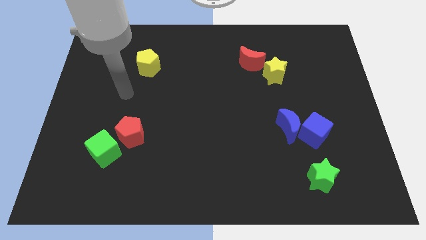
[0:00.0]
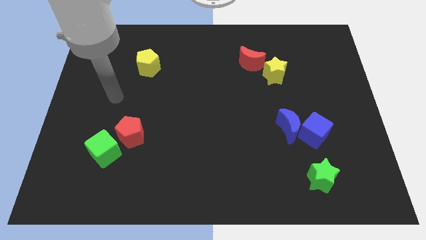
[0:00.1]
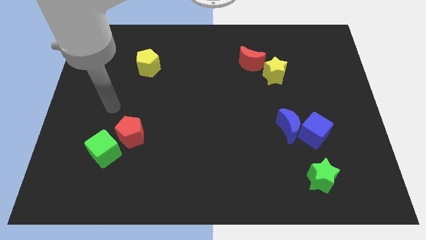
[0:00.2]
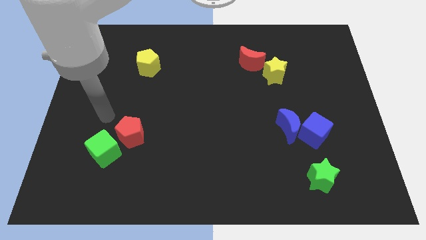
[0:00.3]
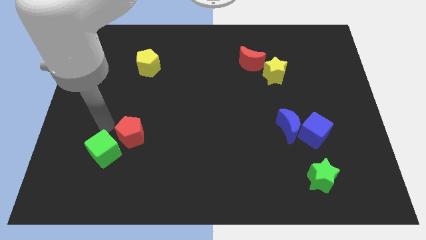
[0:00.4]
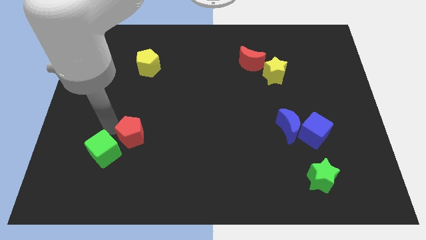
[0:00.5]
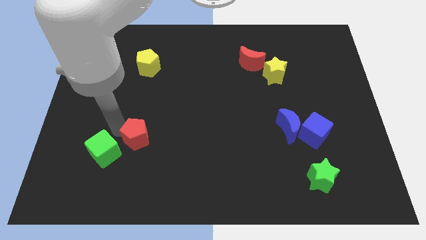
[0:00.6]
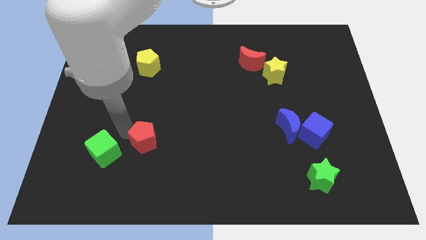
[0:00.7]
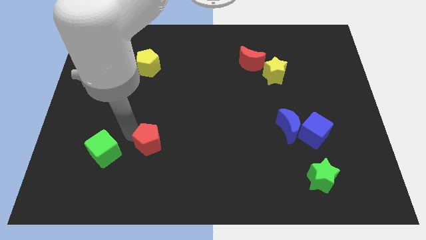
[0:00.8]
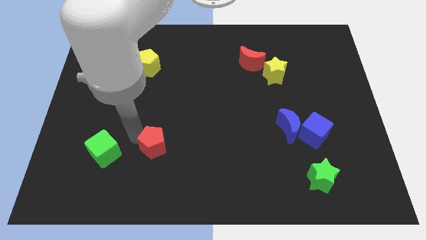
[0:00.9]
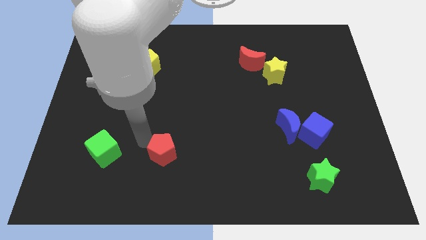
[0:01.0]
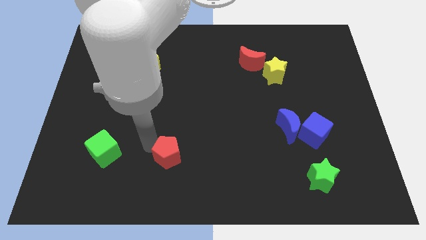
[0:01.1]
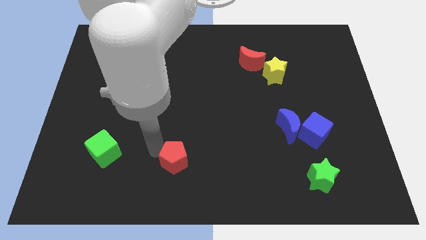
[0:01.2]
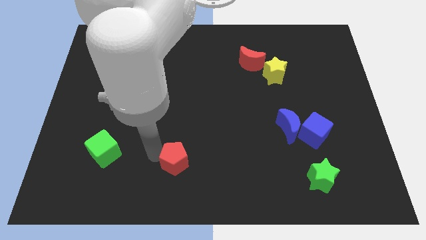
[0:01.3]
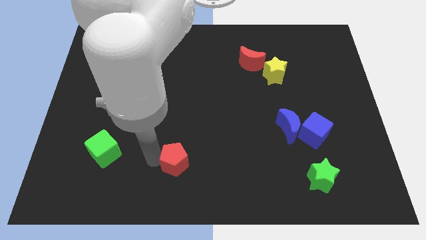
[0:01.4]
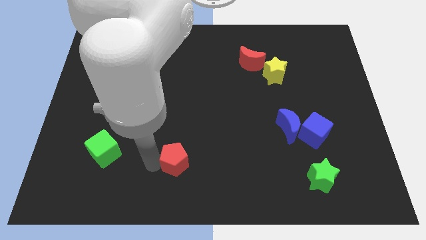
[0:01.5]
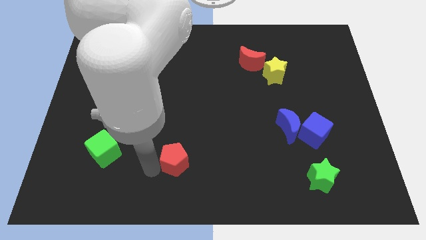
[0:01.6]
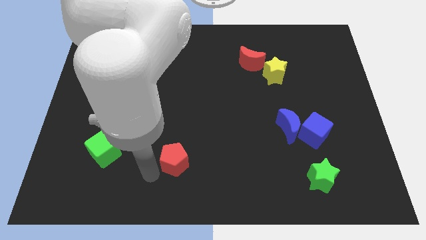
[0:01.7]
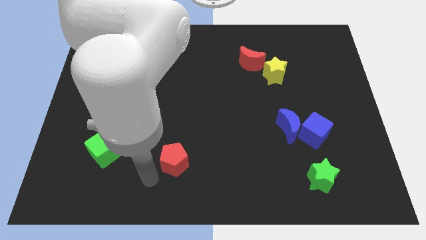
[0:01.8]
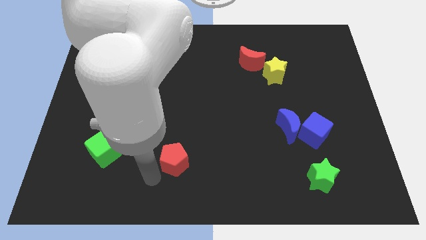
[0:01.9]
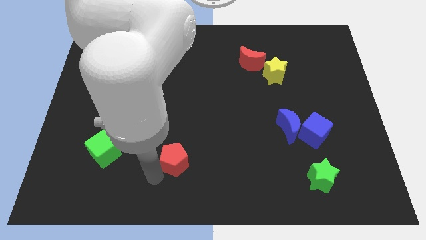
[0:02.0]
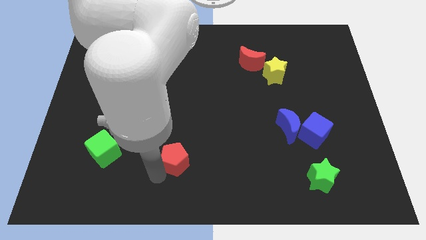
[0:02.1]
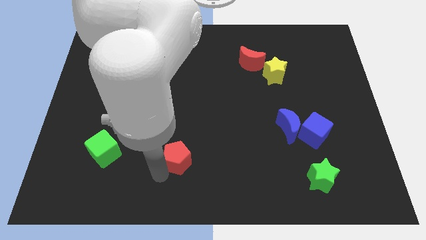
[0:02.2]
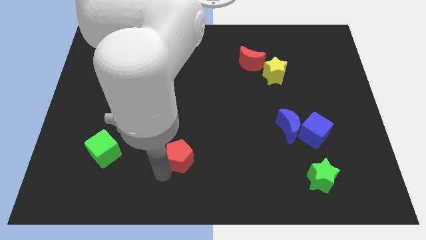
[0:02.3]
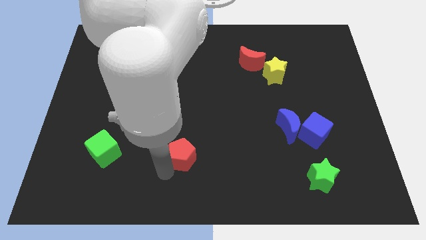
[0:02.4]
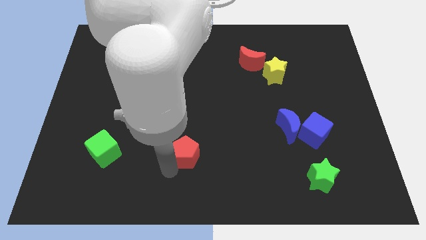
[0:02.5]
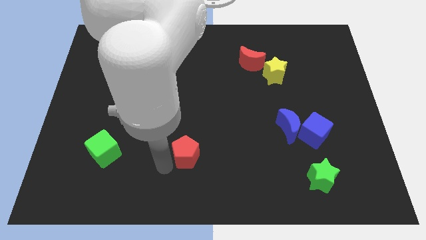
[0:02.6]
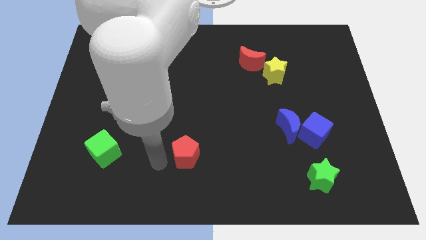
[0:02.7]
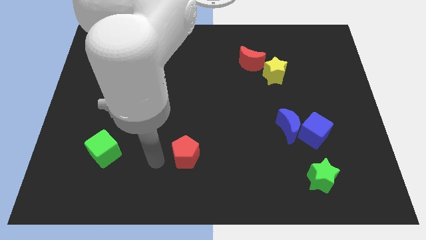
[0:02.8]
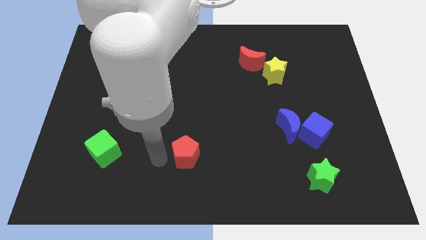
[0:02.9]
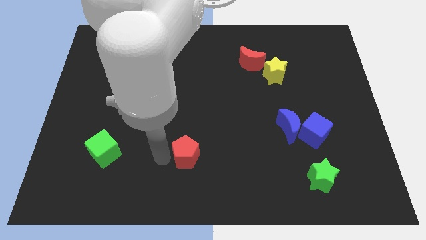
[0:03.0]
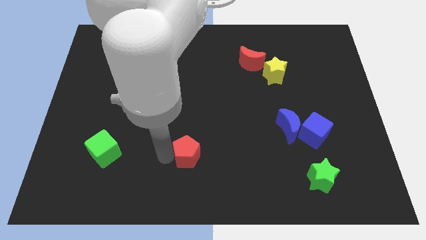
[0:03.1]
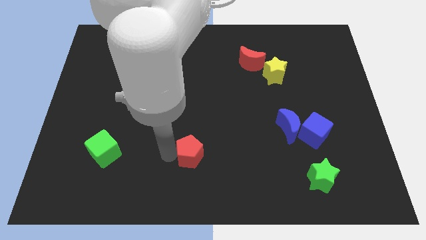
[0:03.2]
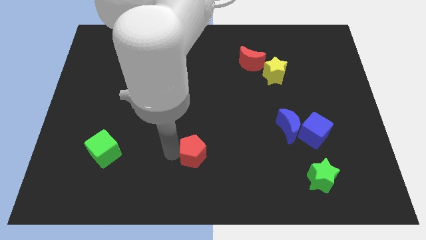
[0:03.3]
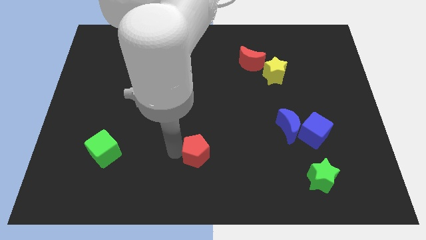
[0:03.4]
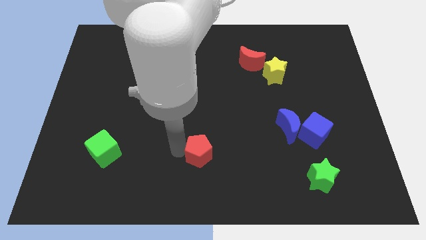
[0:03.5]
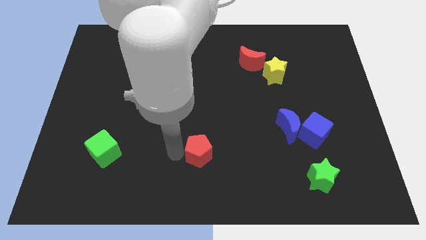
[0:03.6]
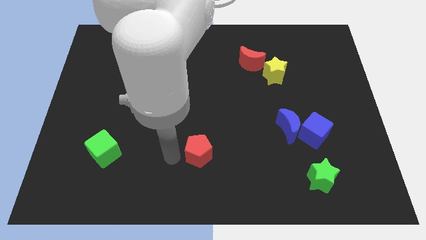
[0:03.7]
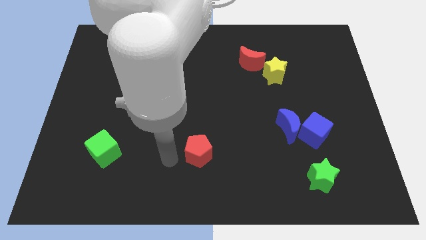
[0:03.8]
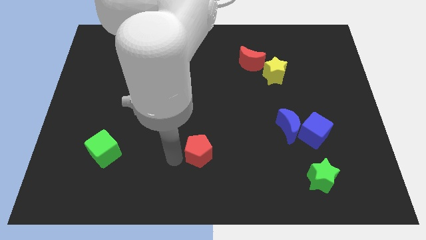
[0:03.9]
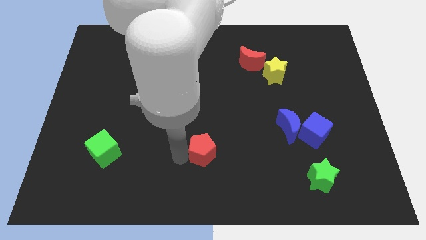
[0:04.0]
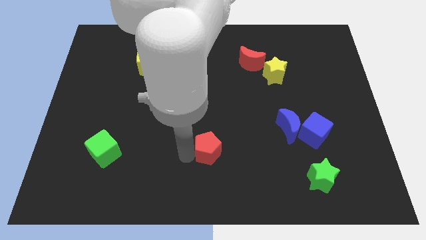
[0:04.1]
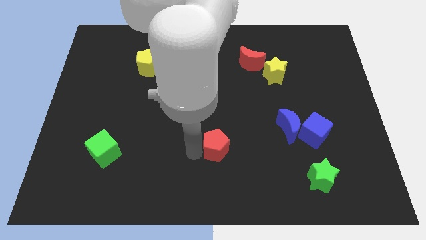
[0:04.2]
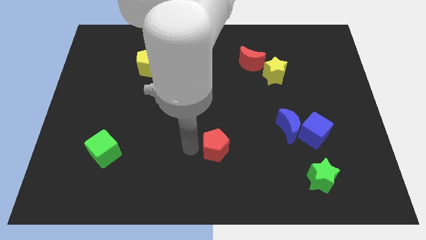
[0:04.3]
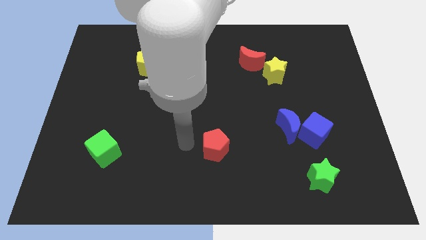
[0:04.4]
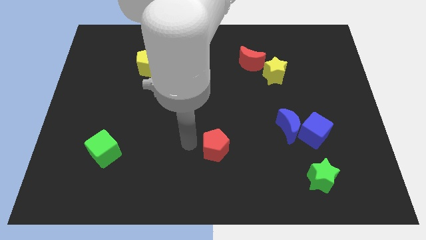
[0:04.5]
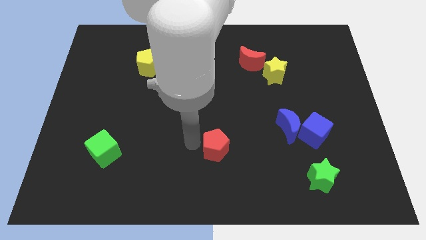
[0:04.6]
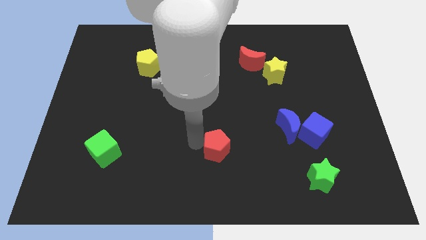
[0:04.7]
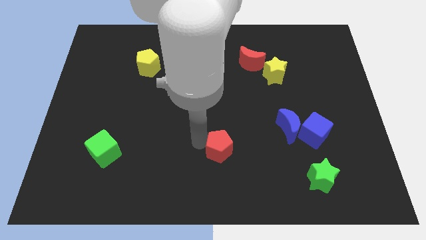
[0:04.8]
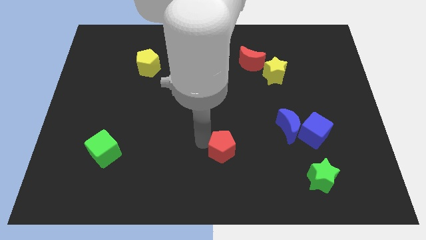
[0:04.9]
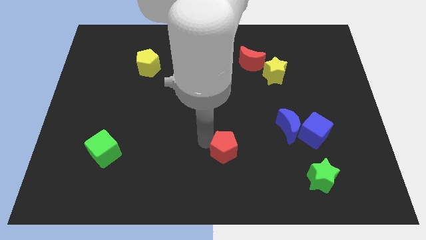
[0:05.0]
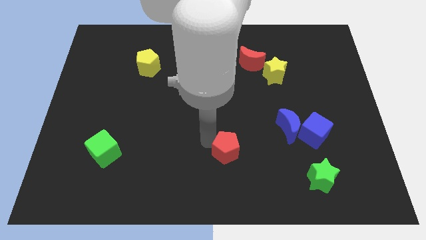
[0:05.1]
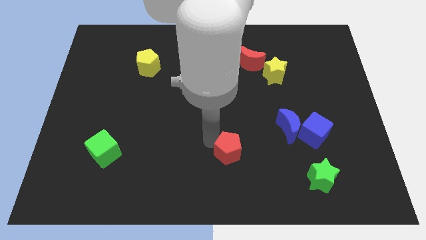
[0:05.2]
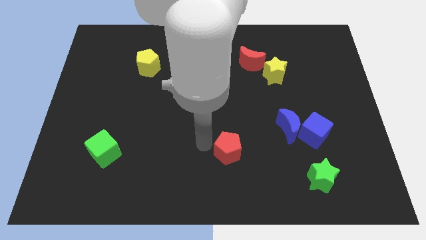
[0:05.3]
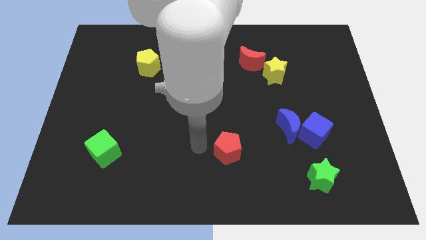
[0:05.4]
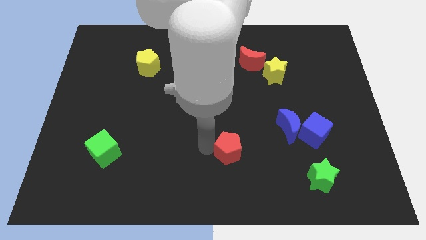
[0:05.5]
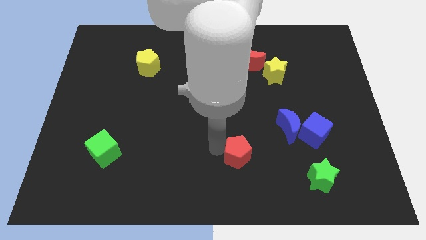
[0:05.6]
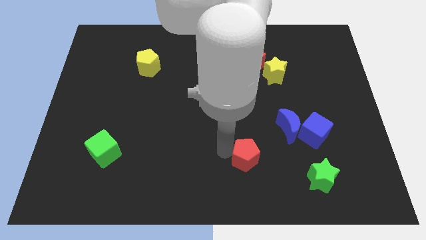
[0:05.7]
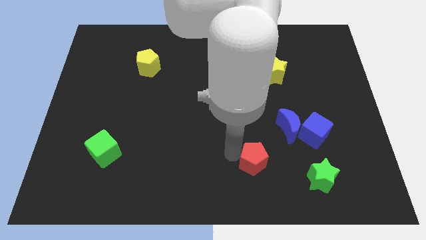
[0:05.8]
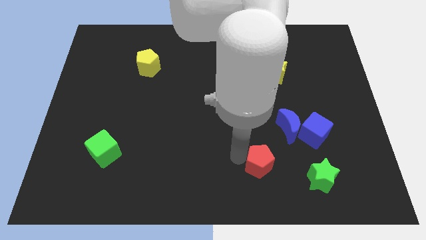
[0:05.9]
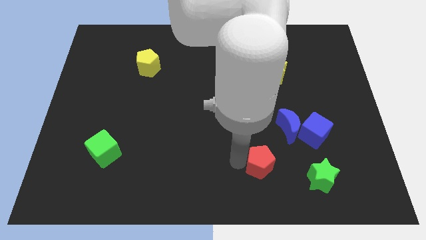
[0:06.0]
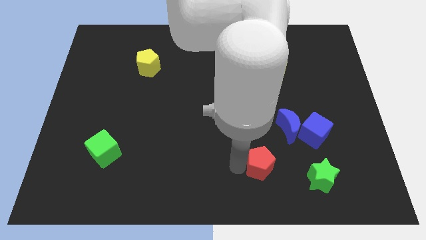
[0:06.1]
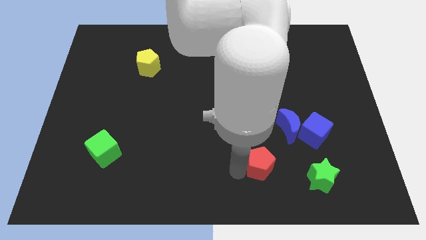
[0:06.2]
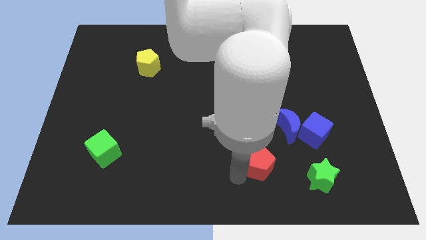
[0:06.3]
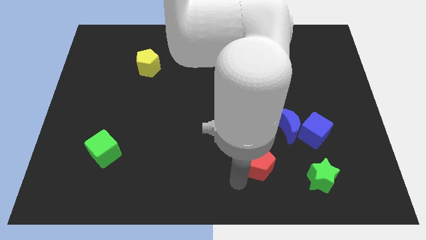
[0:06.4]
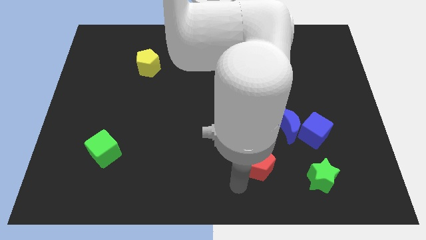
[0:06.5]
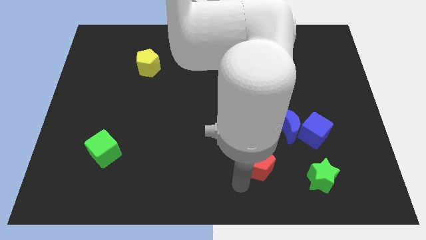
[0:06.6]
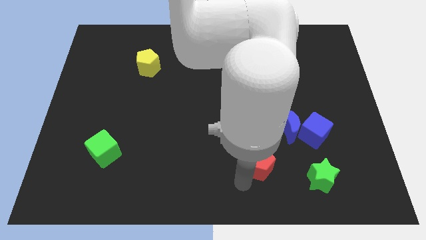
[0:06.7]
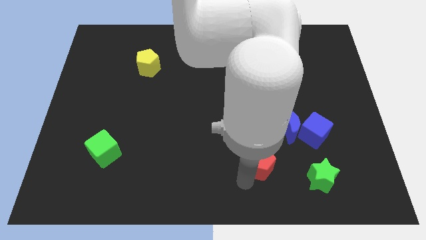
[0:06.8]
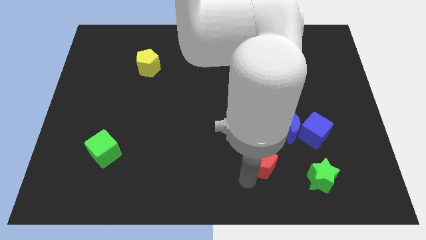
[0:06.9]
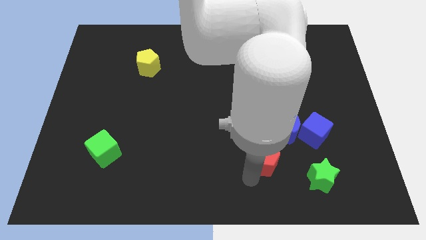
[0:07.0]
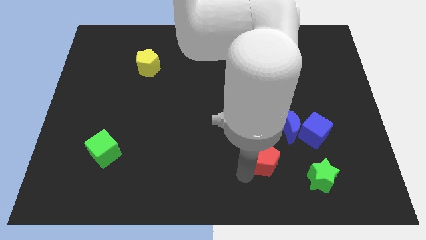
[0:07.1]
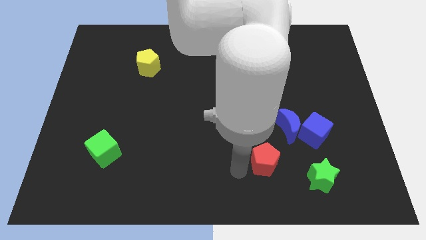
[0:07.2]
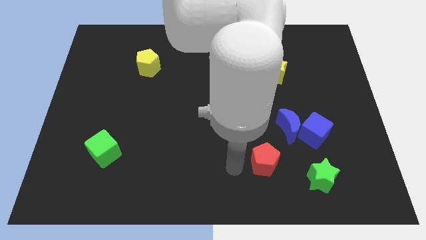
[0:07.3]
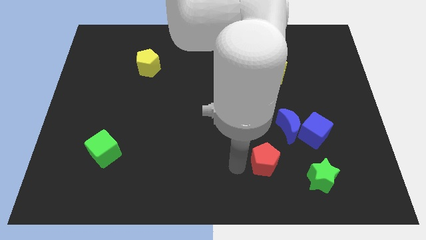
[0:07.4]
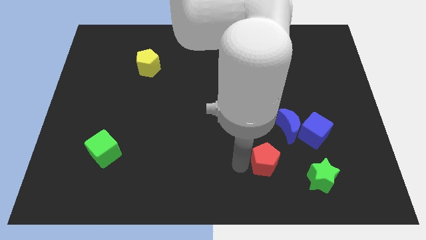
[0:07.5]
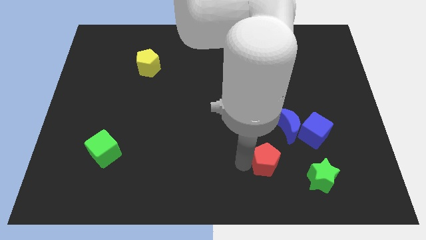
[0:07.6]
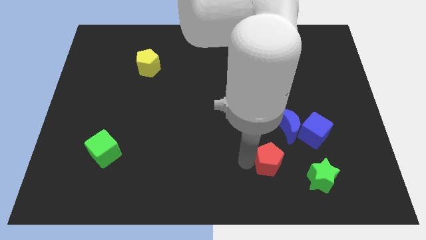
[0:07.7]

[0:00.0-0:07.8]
move the red pentagon to the top left of the green star
